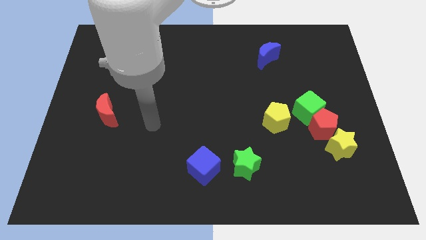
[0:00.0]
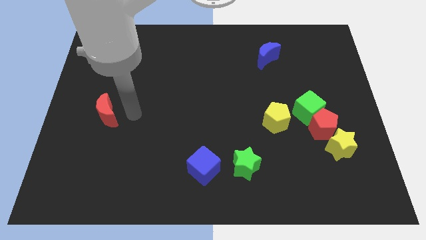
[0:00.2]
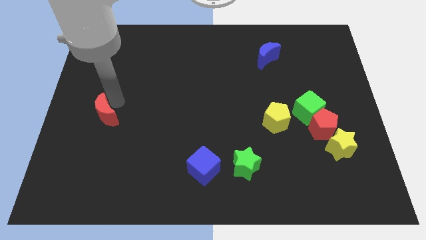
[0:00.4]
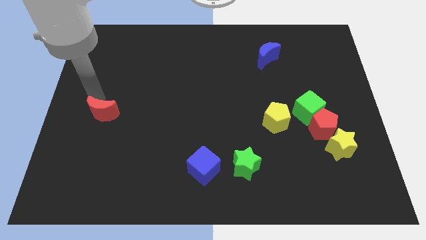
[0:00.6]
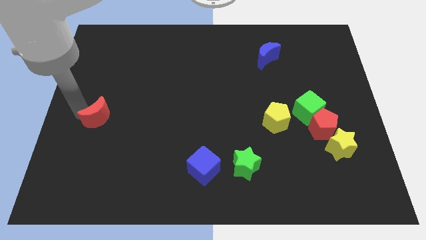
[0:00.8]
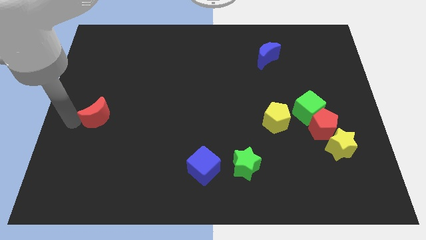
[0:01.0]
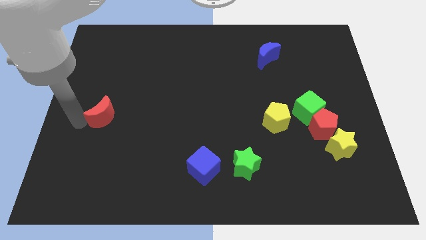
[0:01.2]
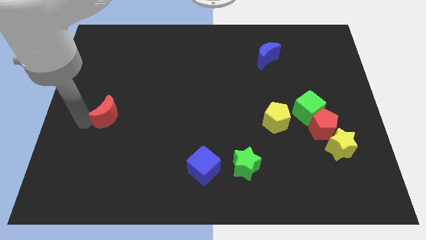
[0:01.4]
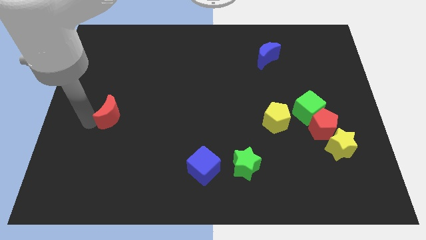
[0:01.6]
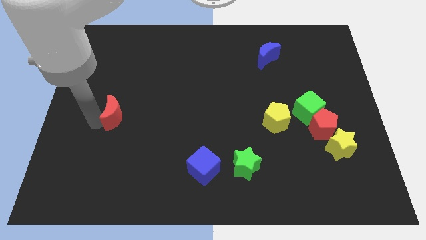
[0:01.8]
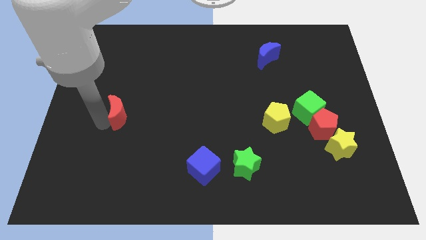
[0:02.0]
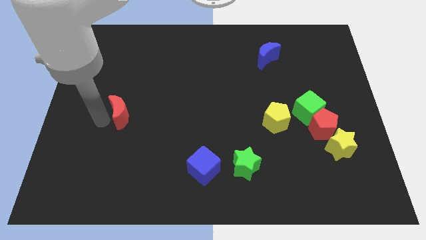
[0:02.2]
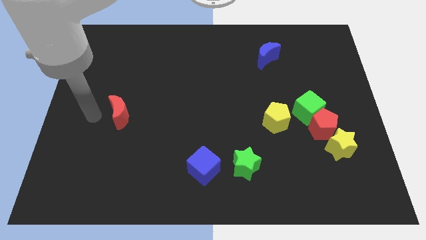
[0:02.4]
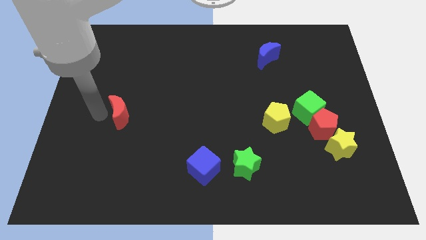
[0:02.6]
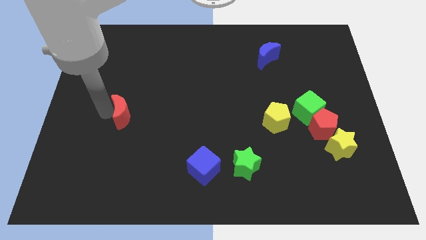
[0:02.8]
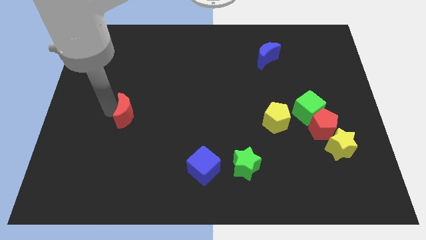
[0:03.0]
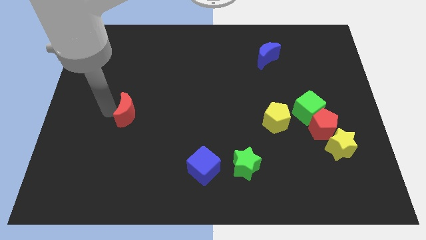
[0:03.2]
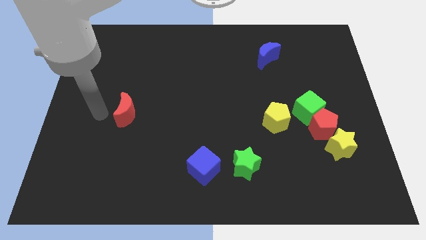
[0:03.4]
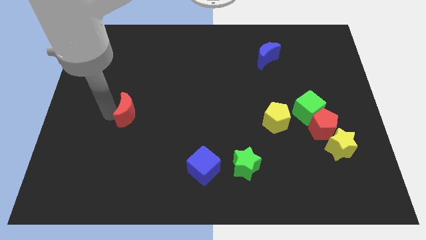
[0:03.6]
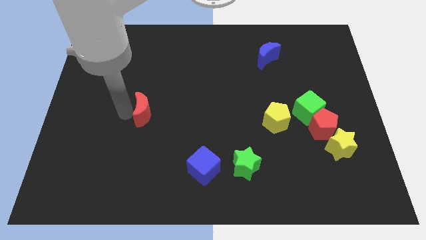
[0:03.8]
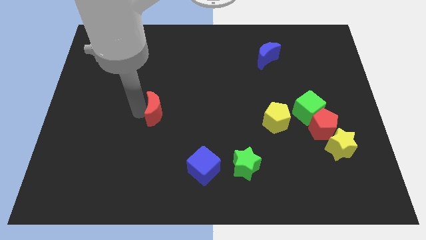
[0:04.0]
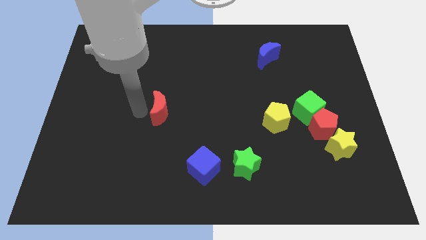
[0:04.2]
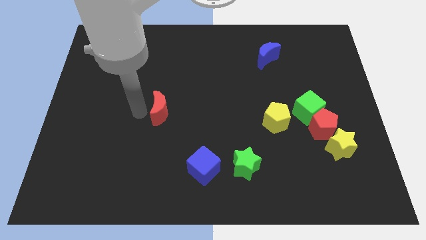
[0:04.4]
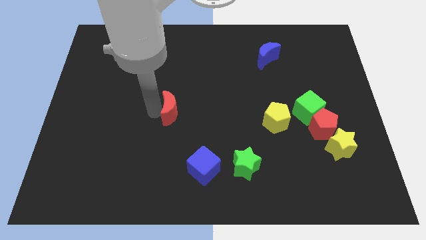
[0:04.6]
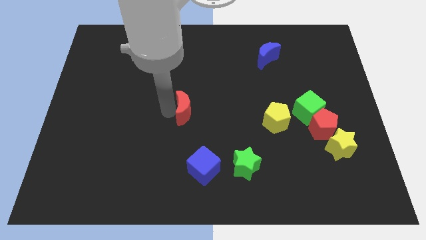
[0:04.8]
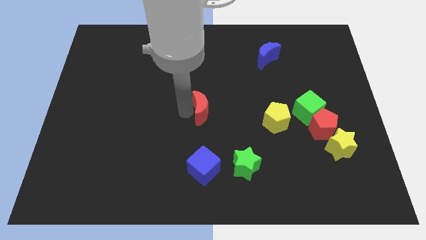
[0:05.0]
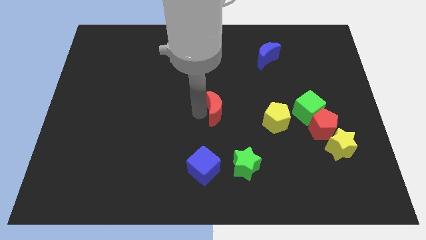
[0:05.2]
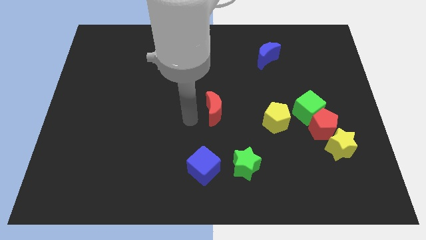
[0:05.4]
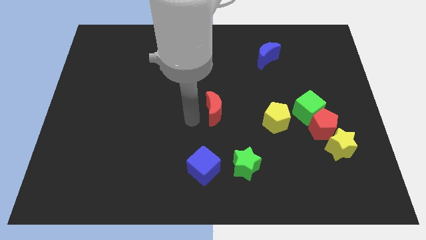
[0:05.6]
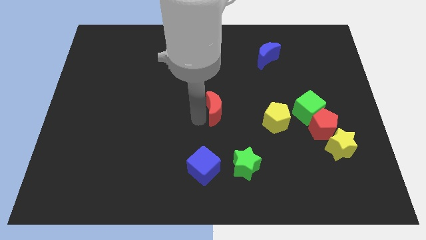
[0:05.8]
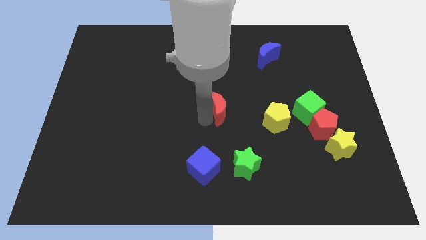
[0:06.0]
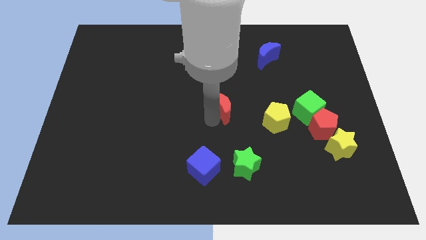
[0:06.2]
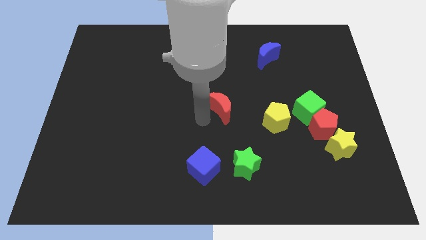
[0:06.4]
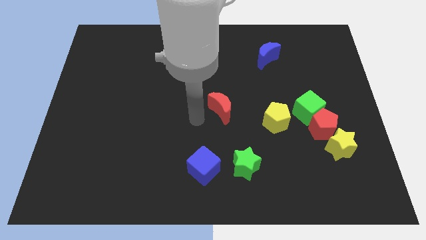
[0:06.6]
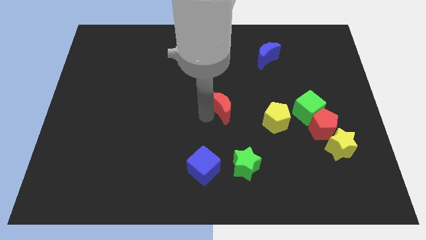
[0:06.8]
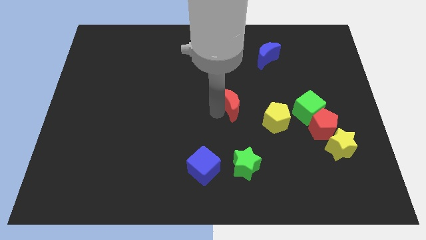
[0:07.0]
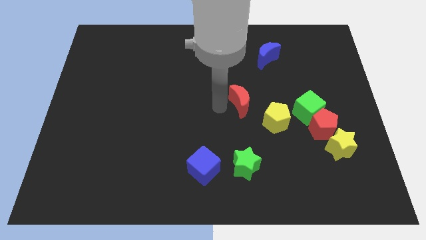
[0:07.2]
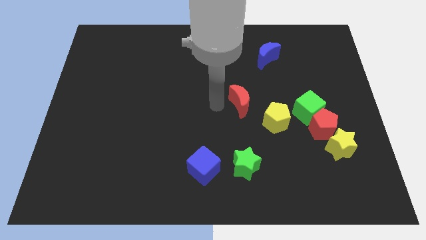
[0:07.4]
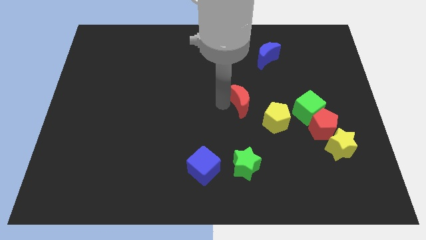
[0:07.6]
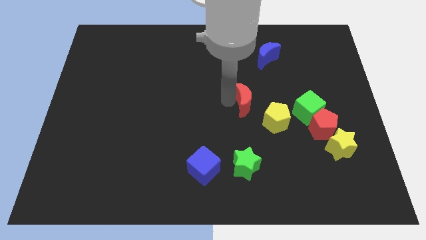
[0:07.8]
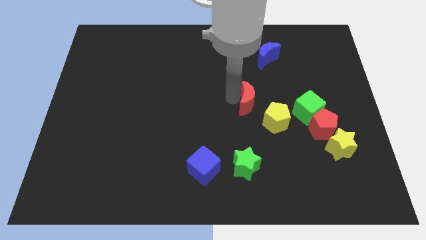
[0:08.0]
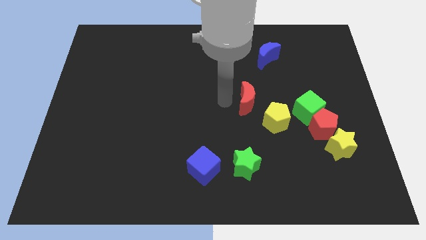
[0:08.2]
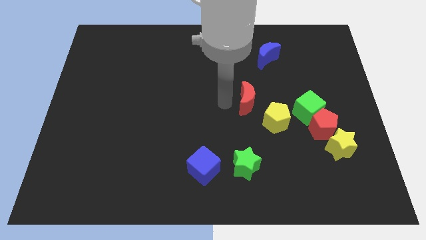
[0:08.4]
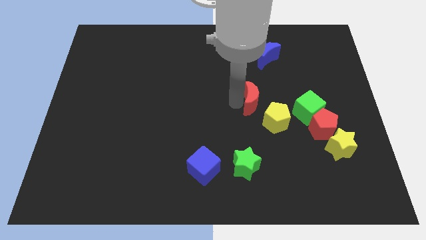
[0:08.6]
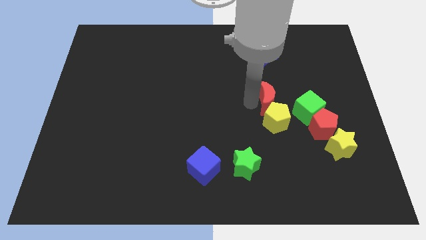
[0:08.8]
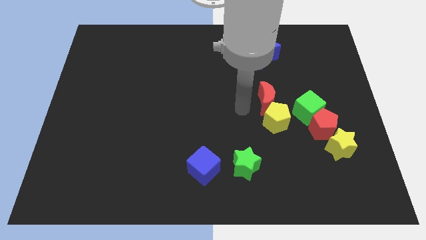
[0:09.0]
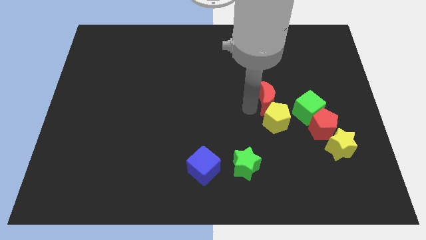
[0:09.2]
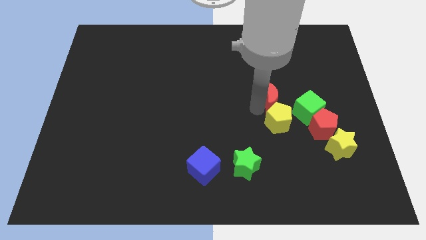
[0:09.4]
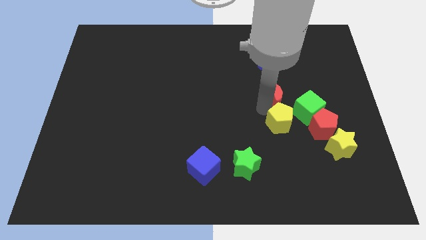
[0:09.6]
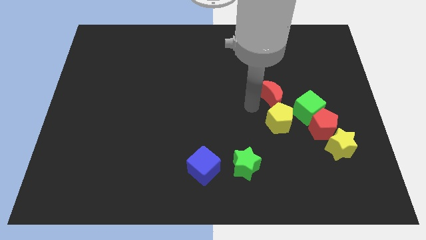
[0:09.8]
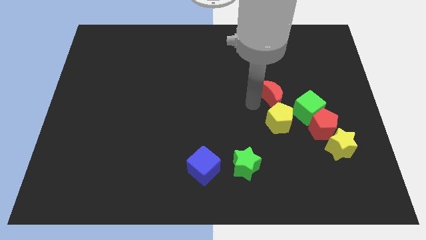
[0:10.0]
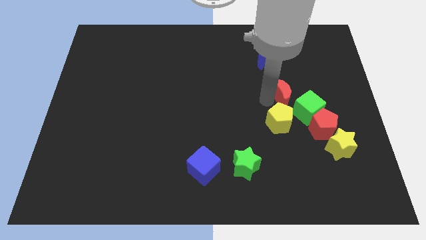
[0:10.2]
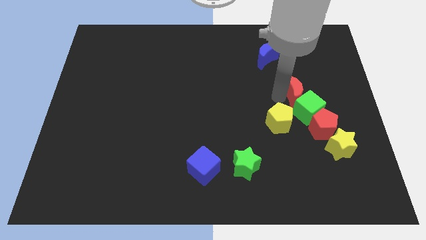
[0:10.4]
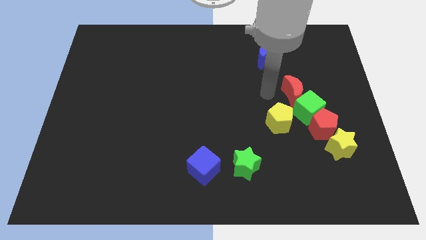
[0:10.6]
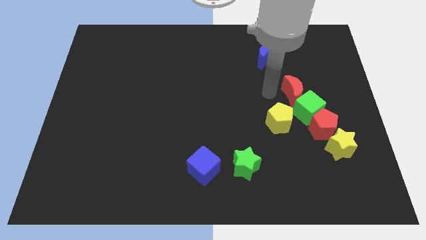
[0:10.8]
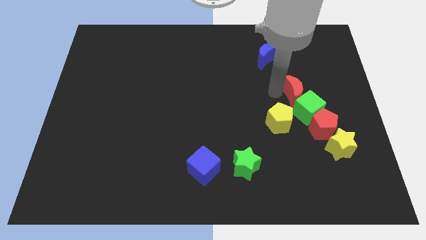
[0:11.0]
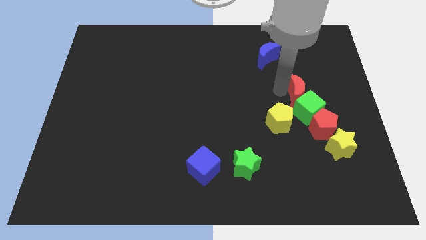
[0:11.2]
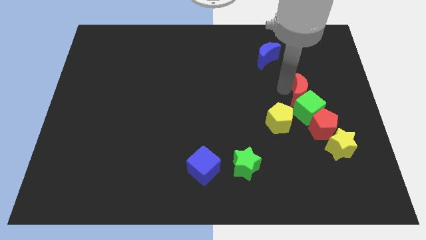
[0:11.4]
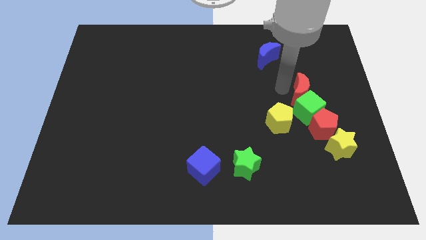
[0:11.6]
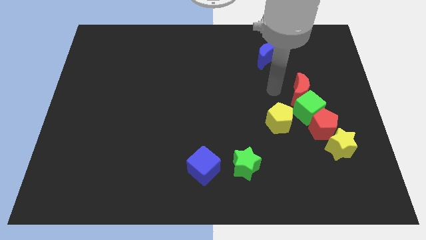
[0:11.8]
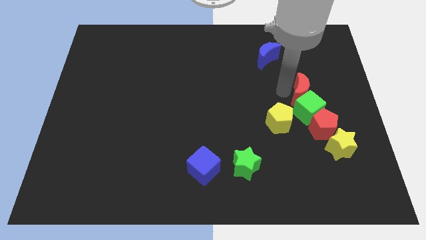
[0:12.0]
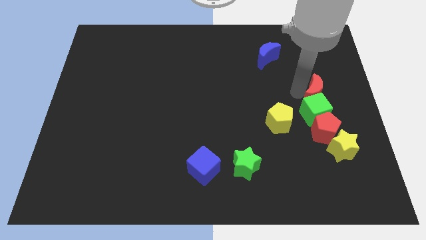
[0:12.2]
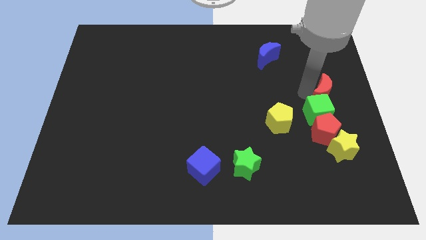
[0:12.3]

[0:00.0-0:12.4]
push the red moon to the right side of the board
